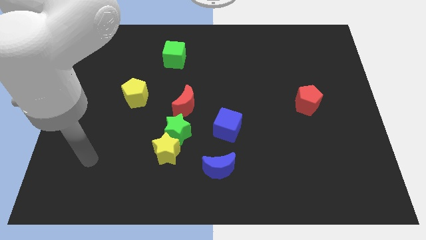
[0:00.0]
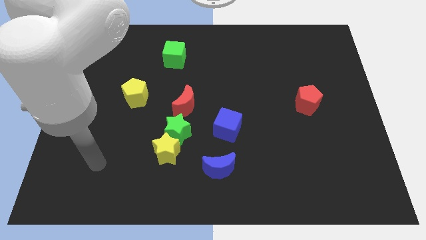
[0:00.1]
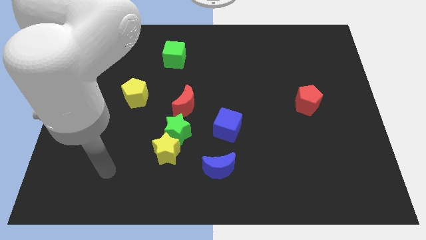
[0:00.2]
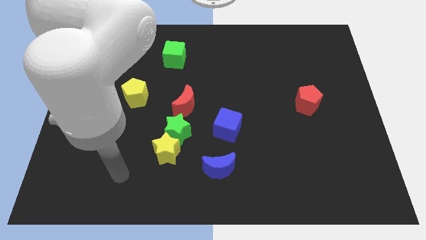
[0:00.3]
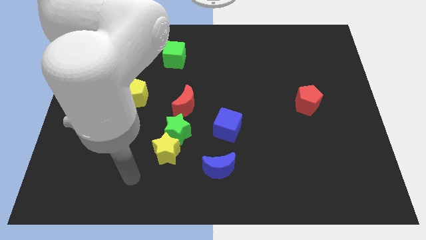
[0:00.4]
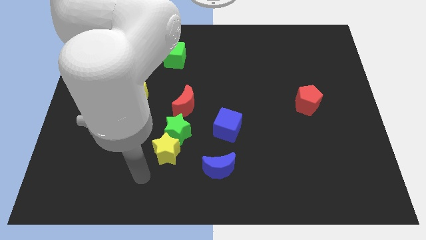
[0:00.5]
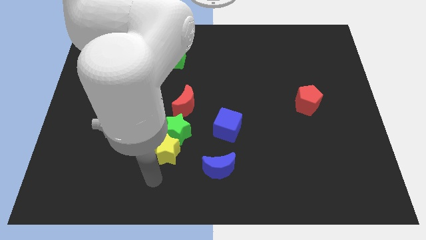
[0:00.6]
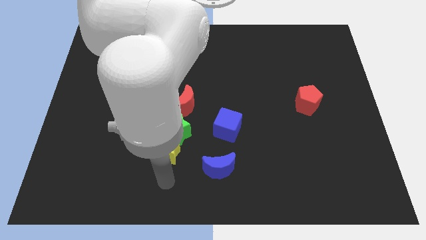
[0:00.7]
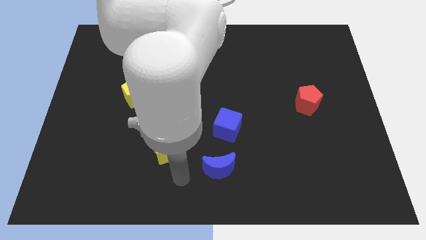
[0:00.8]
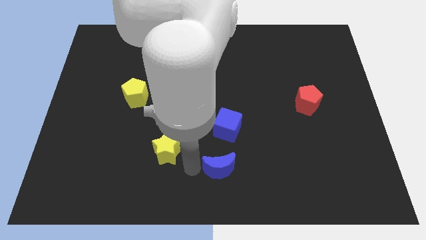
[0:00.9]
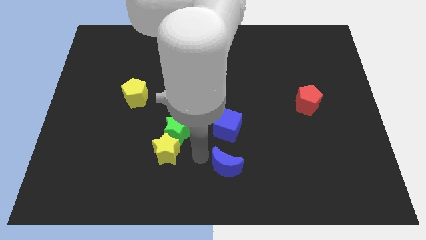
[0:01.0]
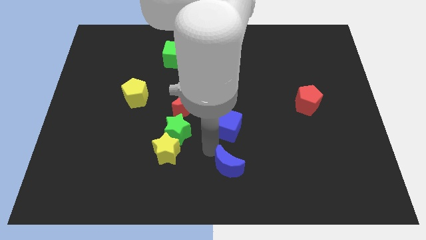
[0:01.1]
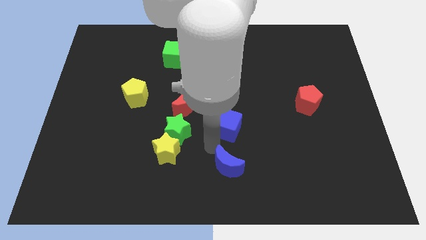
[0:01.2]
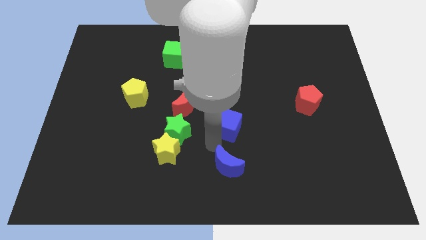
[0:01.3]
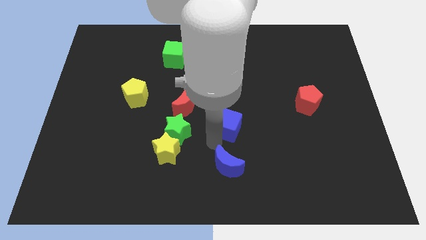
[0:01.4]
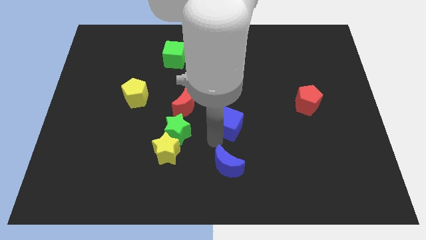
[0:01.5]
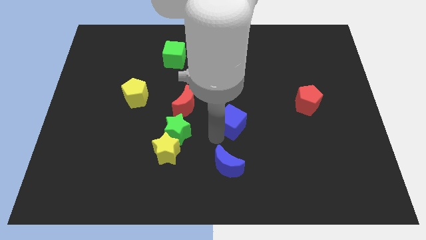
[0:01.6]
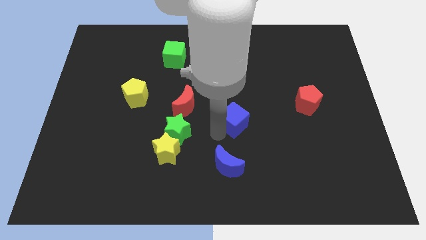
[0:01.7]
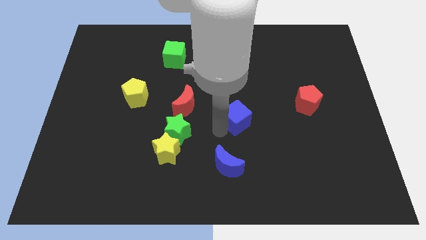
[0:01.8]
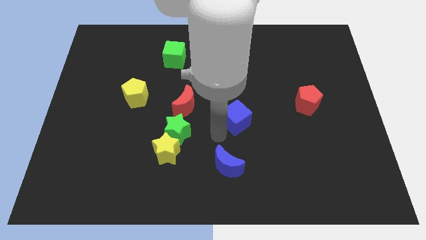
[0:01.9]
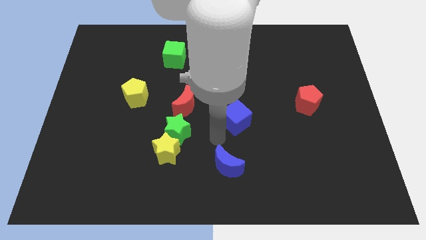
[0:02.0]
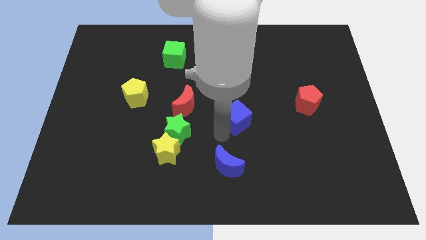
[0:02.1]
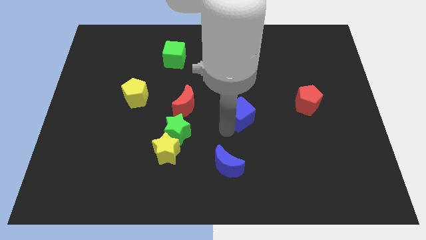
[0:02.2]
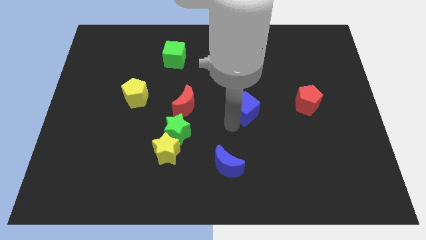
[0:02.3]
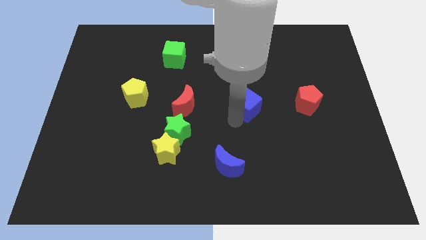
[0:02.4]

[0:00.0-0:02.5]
move the blue cube diagonally upwards and right a little bit

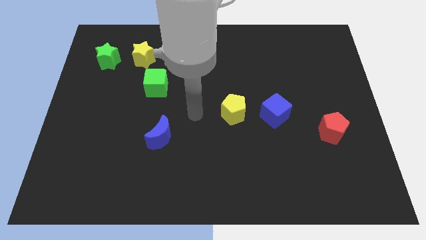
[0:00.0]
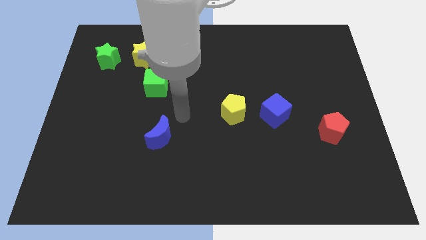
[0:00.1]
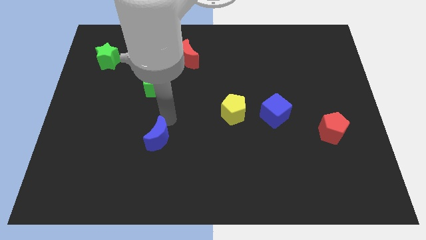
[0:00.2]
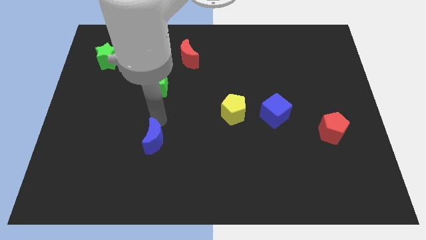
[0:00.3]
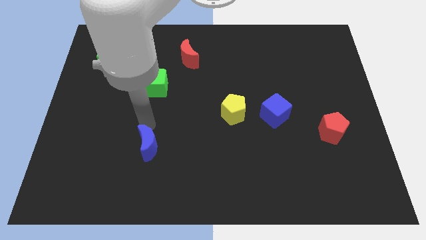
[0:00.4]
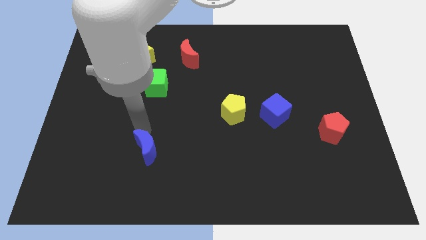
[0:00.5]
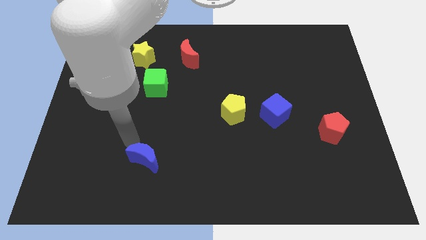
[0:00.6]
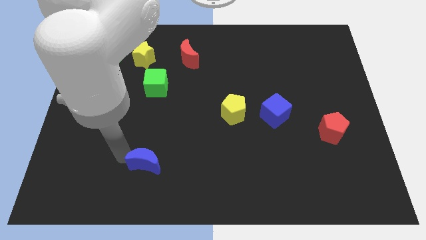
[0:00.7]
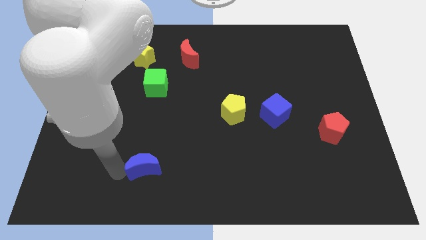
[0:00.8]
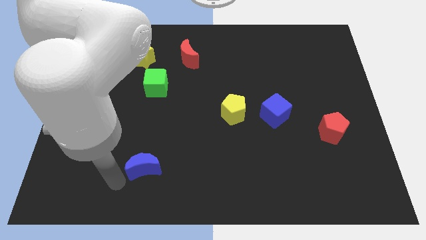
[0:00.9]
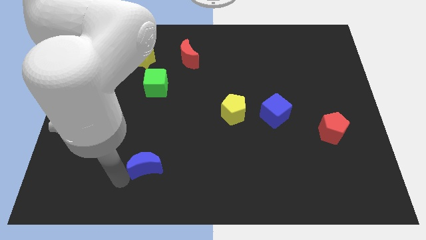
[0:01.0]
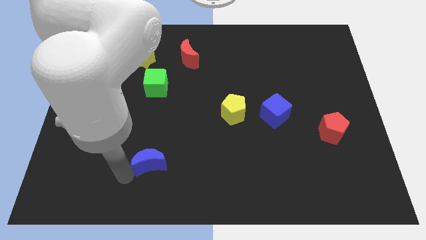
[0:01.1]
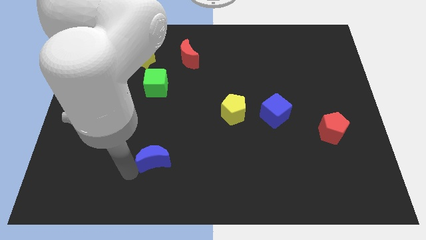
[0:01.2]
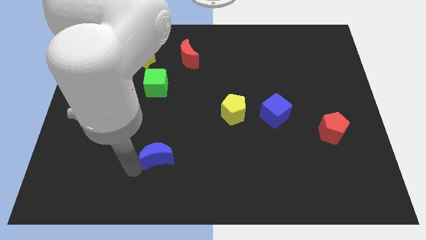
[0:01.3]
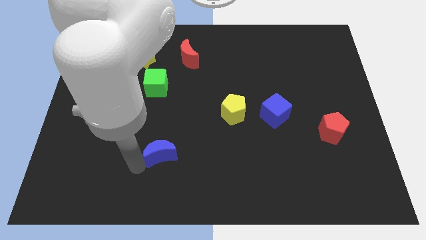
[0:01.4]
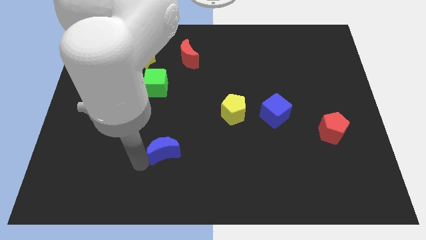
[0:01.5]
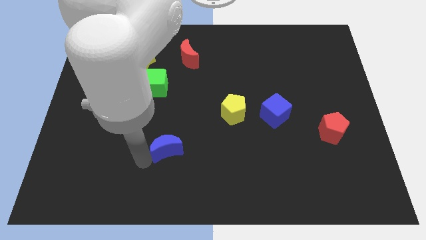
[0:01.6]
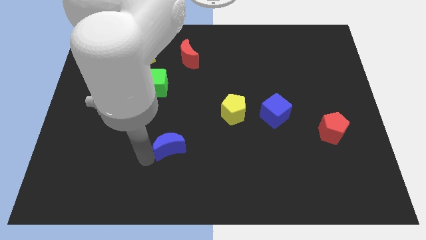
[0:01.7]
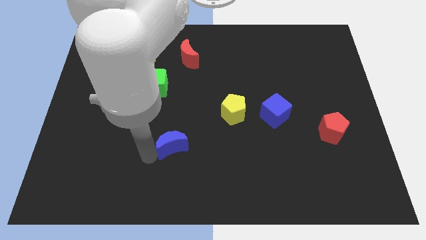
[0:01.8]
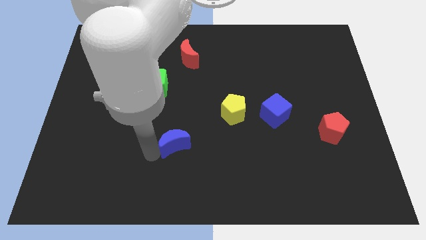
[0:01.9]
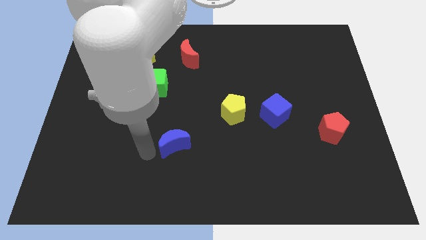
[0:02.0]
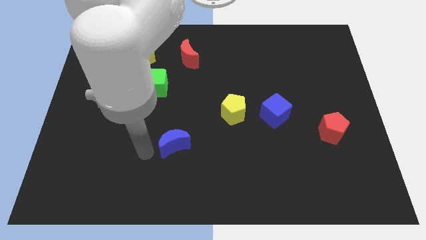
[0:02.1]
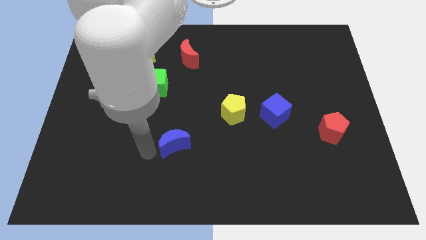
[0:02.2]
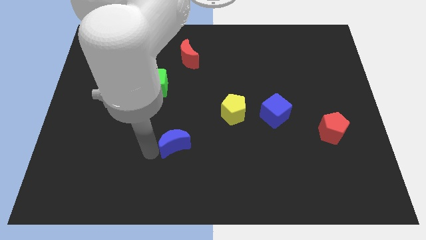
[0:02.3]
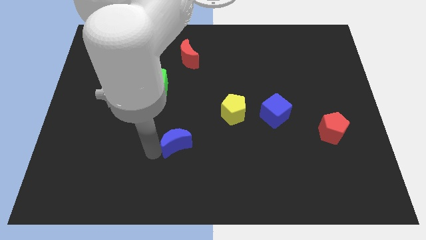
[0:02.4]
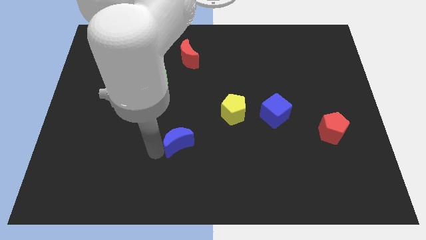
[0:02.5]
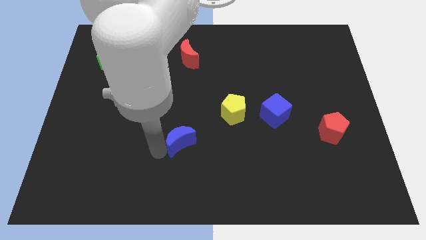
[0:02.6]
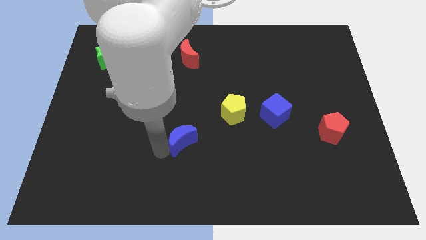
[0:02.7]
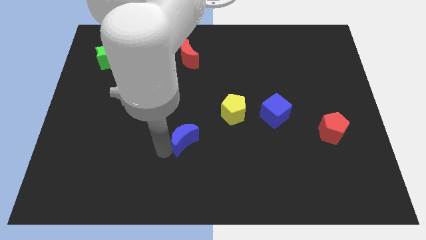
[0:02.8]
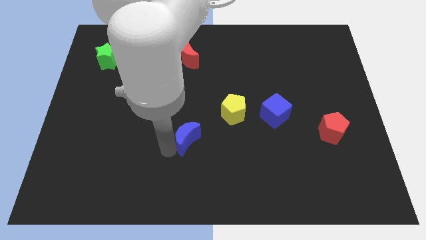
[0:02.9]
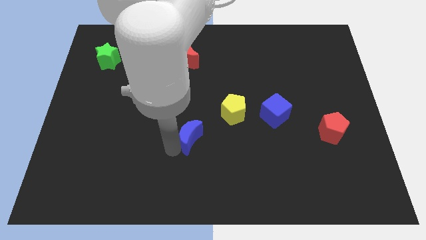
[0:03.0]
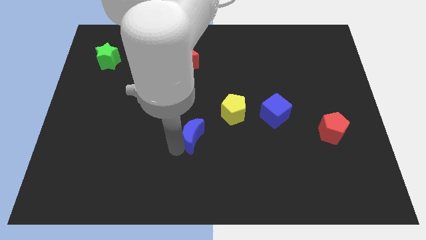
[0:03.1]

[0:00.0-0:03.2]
slightly move the blue moon right

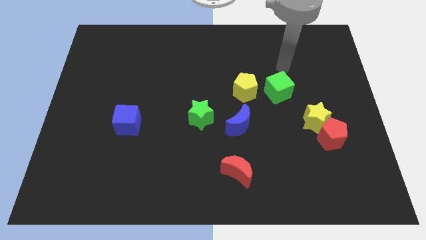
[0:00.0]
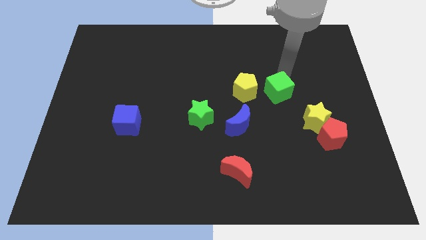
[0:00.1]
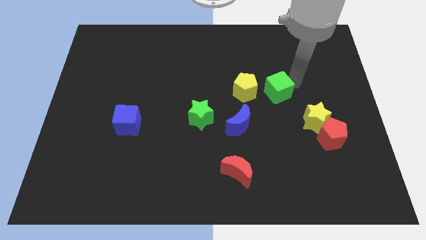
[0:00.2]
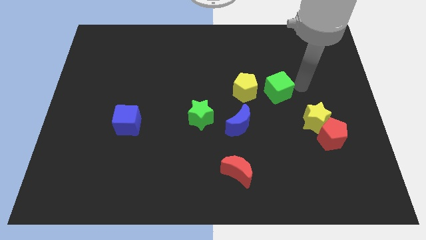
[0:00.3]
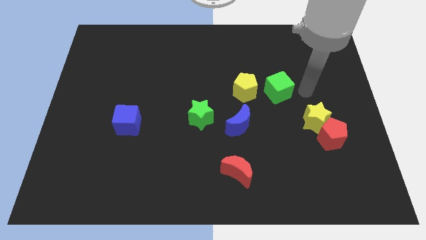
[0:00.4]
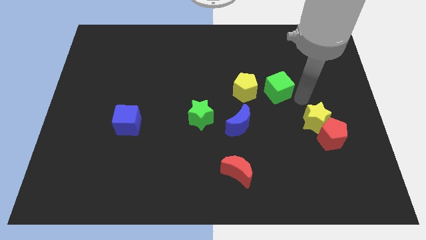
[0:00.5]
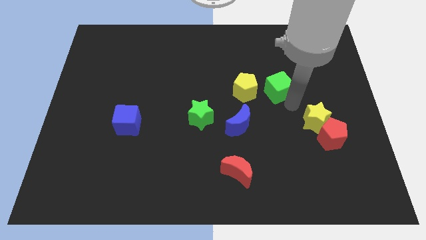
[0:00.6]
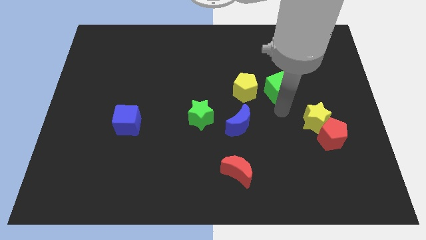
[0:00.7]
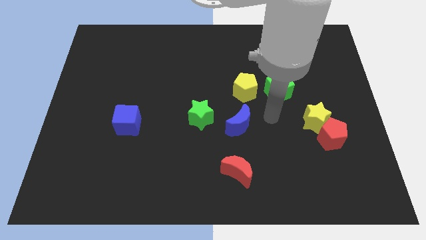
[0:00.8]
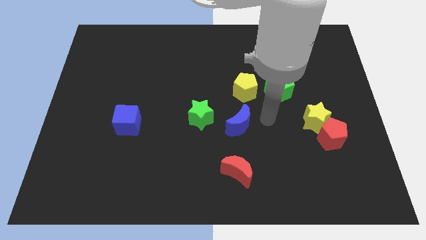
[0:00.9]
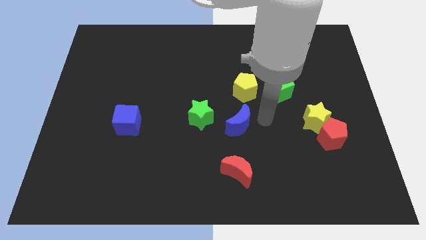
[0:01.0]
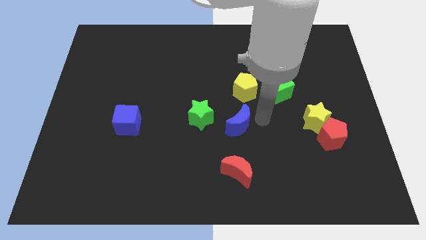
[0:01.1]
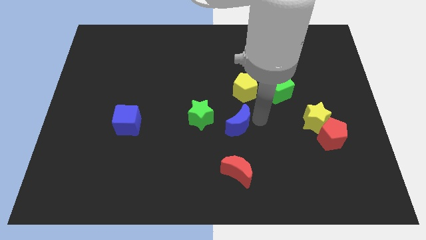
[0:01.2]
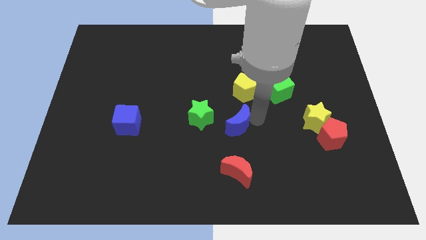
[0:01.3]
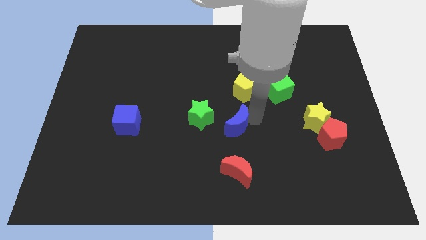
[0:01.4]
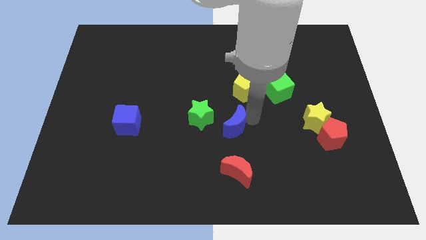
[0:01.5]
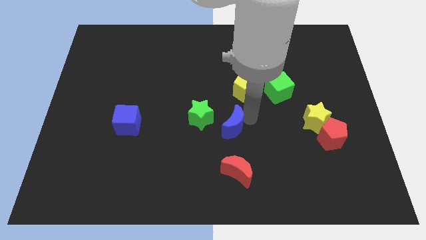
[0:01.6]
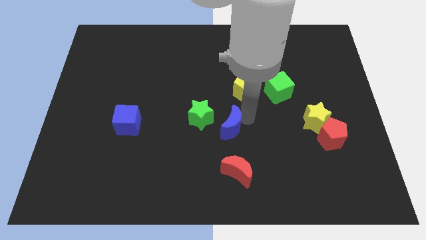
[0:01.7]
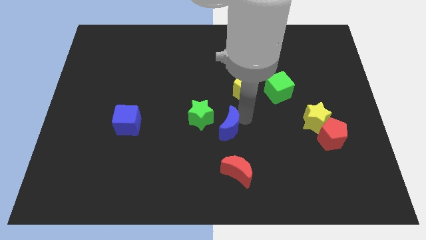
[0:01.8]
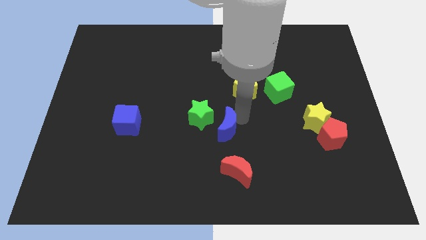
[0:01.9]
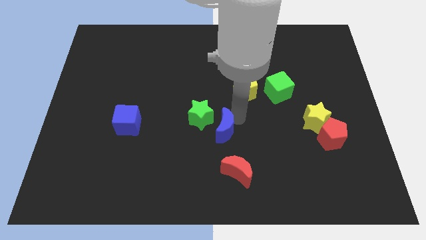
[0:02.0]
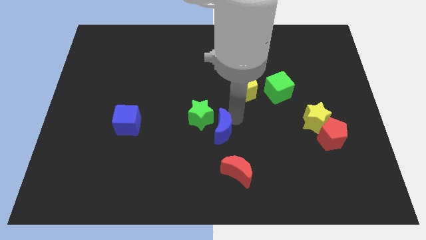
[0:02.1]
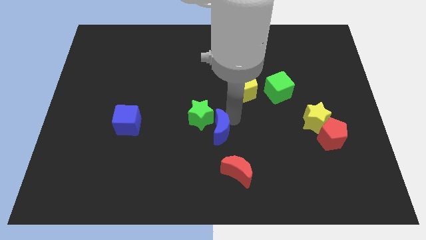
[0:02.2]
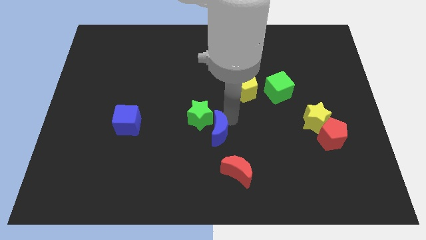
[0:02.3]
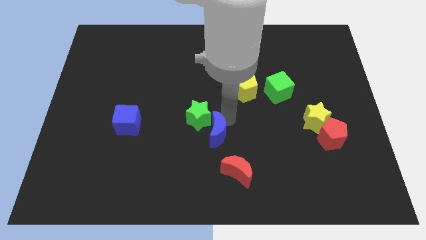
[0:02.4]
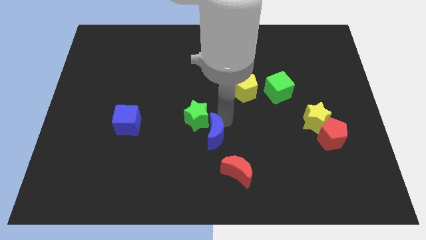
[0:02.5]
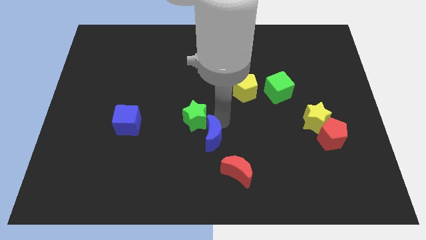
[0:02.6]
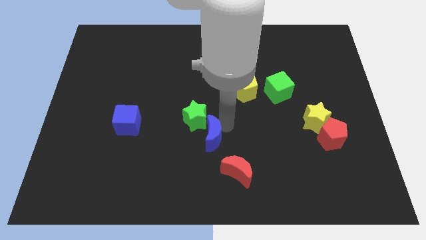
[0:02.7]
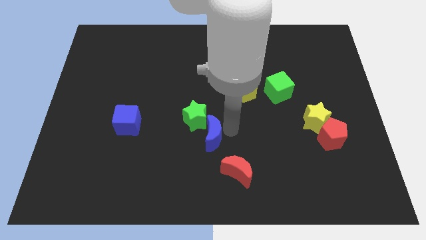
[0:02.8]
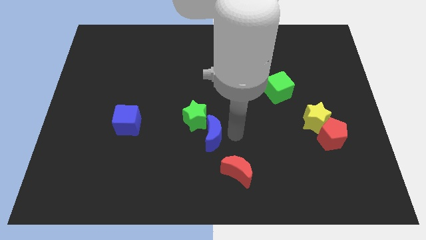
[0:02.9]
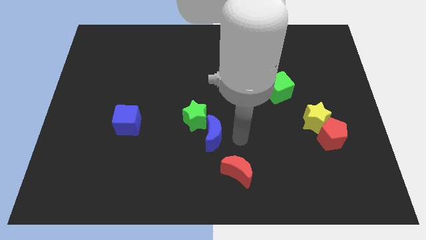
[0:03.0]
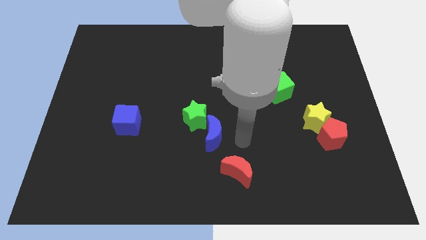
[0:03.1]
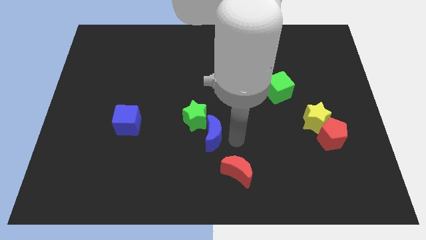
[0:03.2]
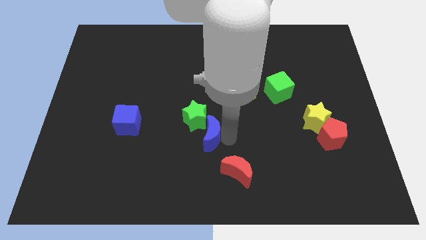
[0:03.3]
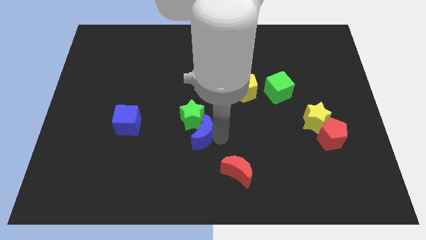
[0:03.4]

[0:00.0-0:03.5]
slightly slide the blue moon to the left
